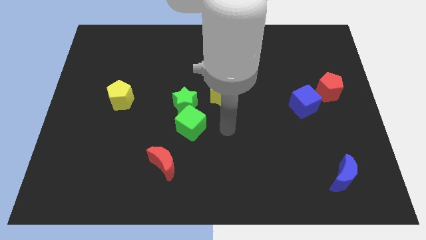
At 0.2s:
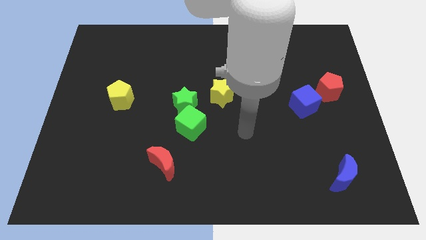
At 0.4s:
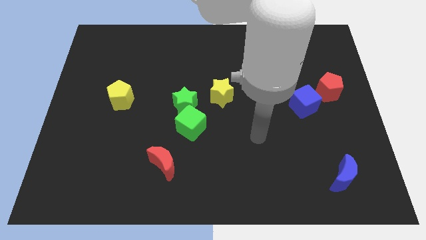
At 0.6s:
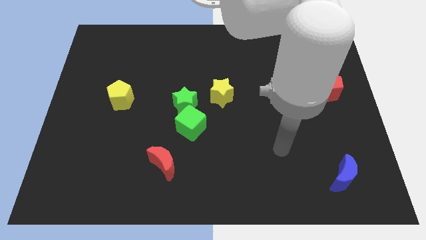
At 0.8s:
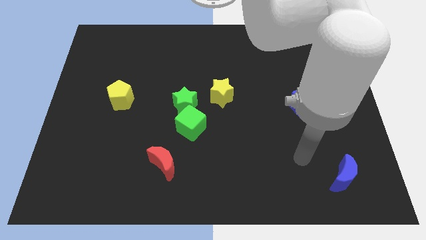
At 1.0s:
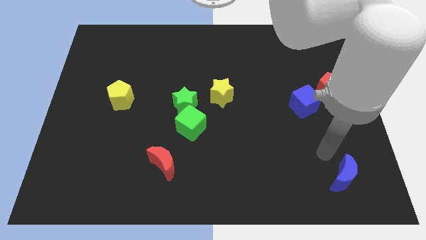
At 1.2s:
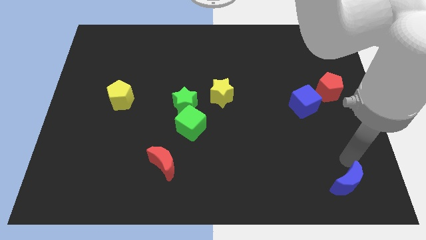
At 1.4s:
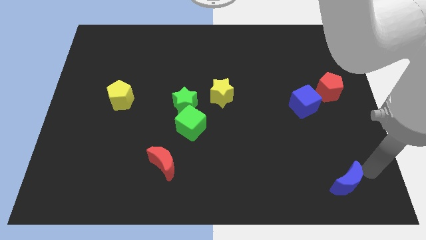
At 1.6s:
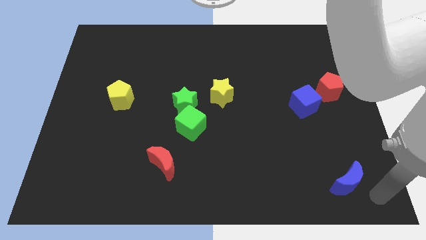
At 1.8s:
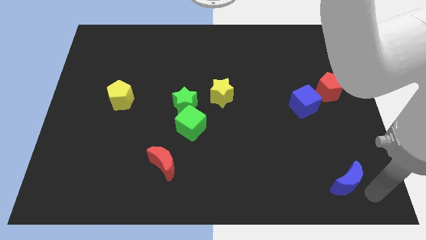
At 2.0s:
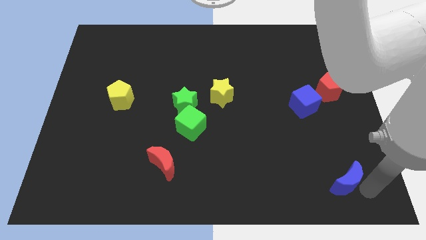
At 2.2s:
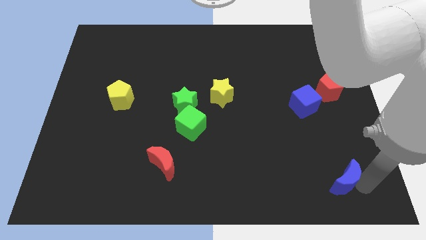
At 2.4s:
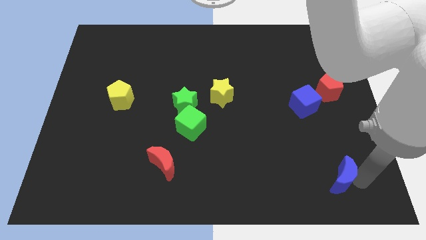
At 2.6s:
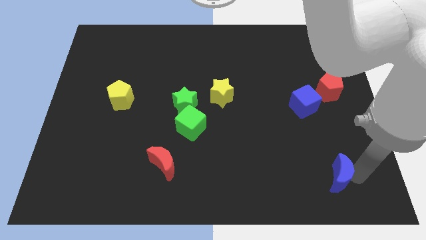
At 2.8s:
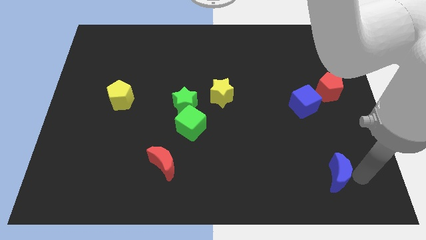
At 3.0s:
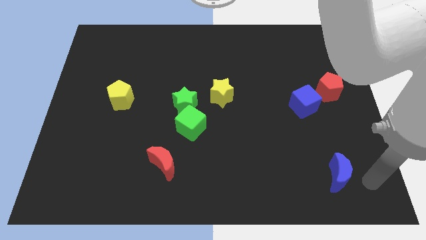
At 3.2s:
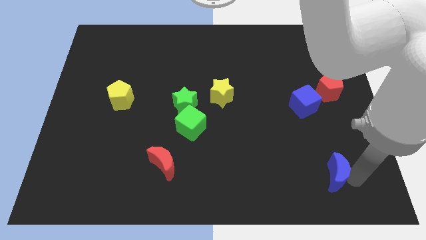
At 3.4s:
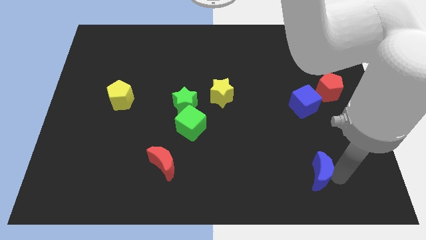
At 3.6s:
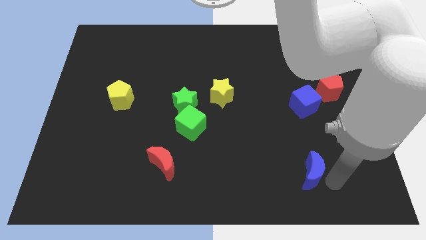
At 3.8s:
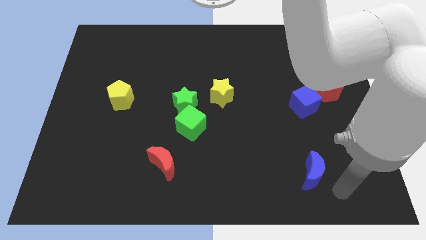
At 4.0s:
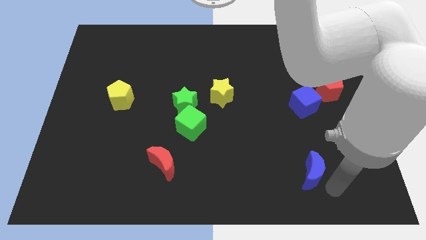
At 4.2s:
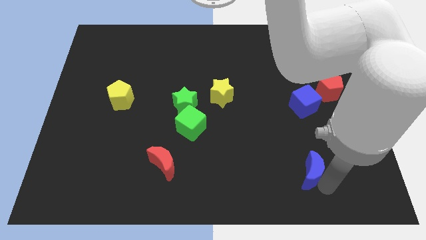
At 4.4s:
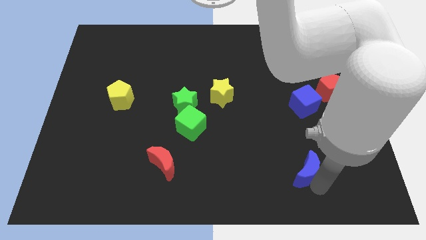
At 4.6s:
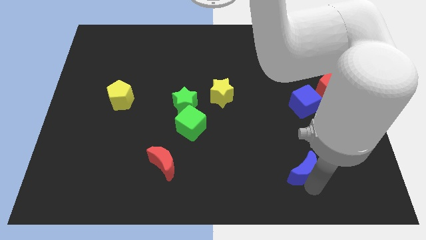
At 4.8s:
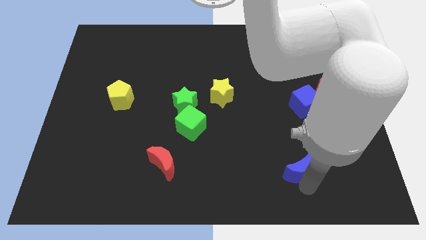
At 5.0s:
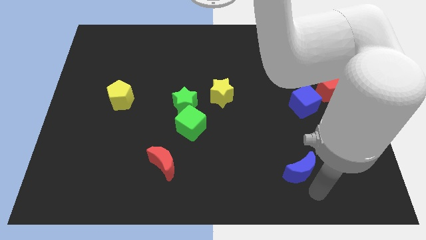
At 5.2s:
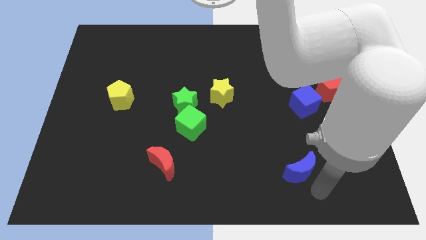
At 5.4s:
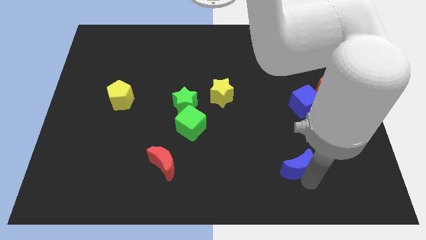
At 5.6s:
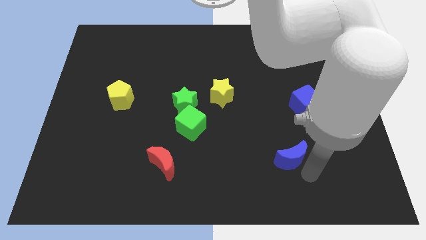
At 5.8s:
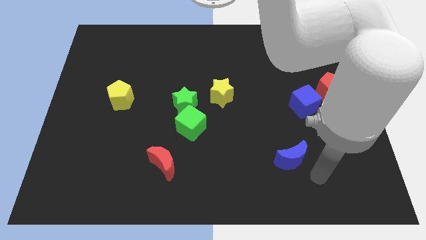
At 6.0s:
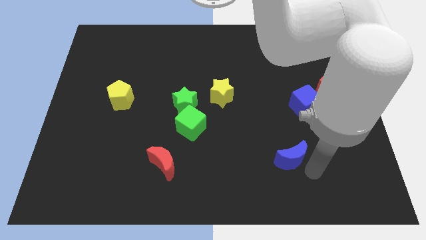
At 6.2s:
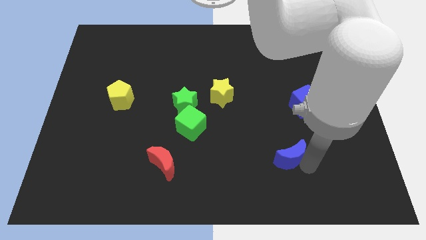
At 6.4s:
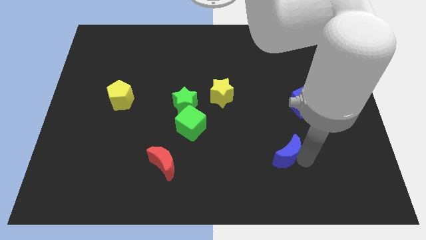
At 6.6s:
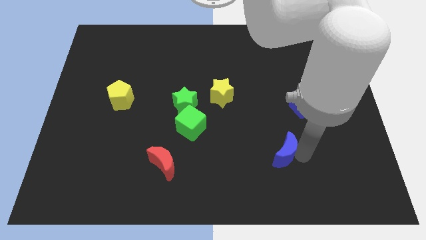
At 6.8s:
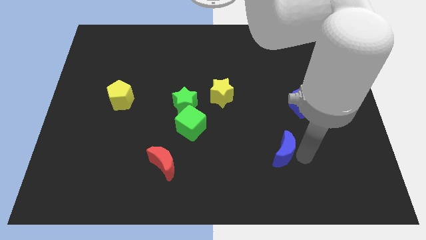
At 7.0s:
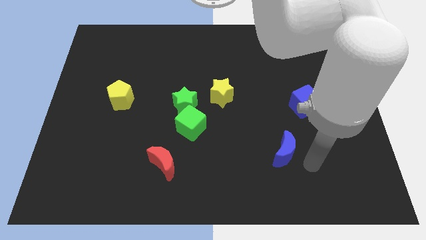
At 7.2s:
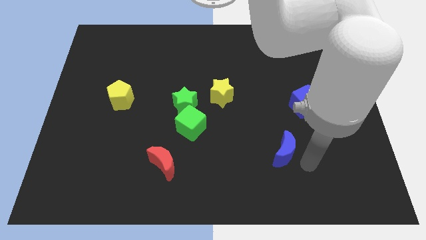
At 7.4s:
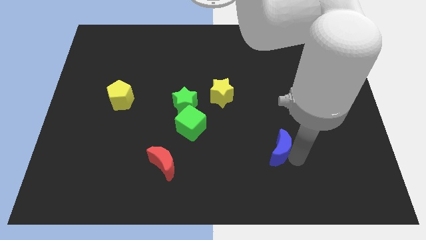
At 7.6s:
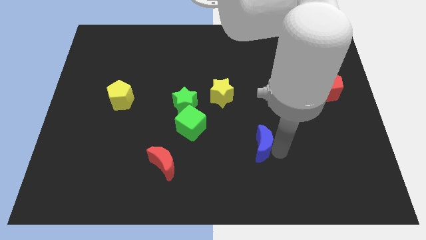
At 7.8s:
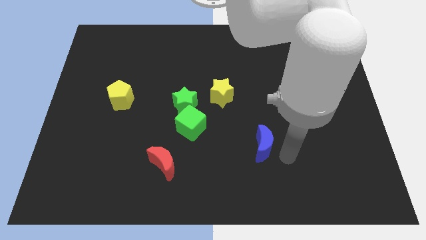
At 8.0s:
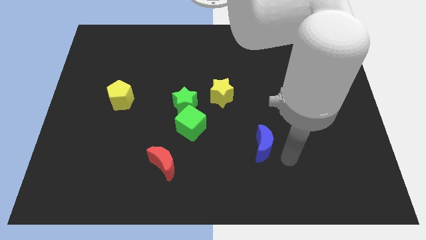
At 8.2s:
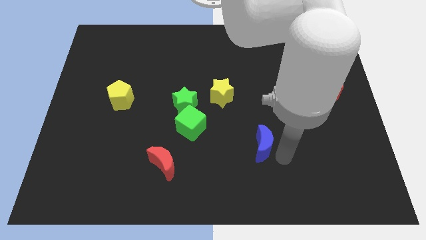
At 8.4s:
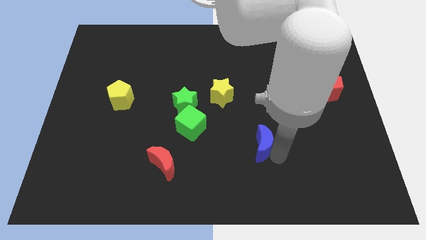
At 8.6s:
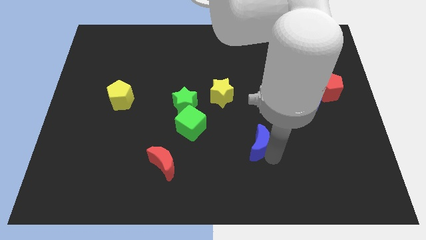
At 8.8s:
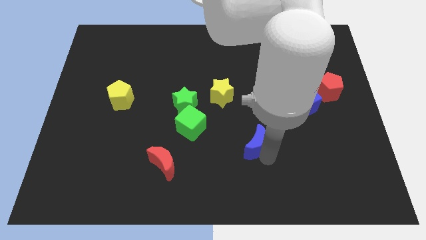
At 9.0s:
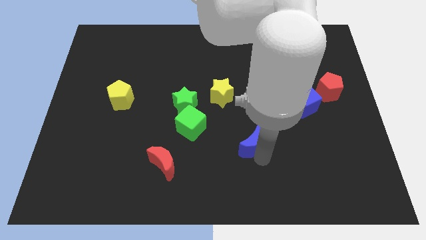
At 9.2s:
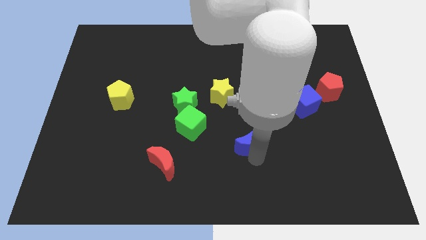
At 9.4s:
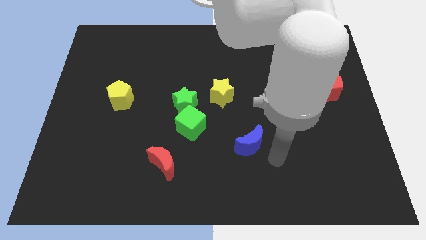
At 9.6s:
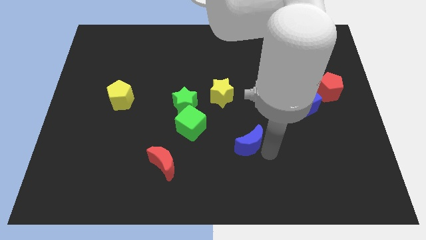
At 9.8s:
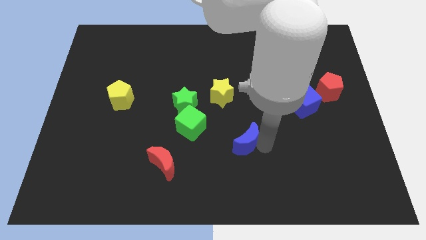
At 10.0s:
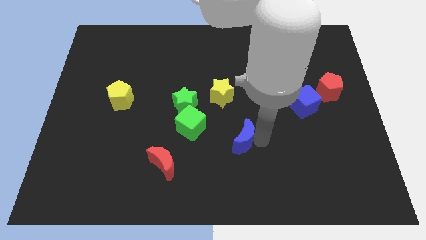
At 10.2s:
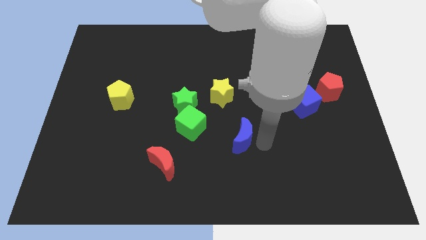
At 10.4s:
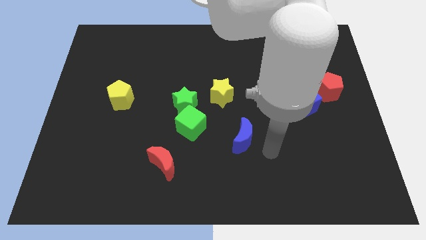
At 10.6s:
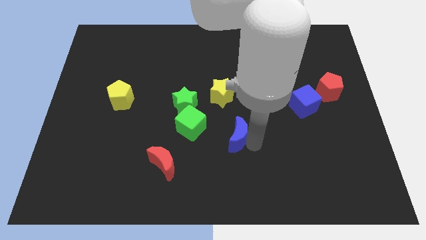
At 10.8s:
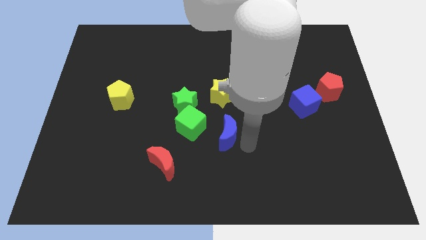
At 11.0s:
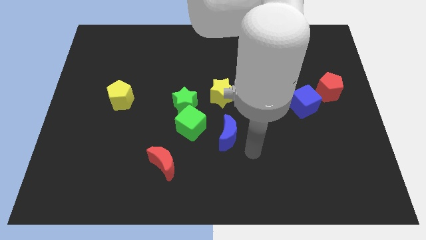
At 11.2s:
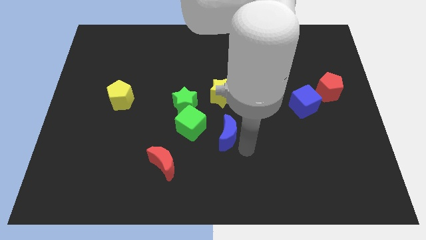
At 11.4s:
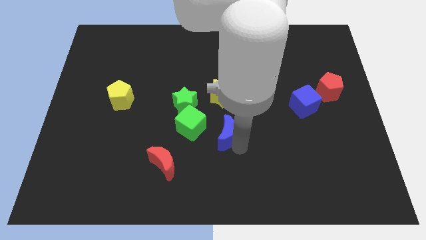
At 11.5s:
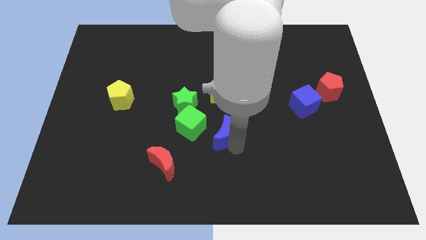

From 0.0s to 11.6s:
put the blue moon diagonally down and to the right of the green star

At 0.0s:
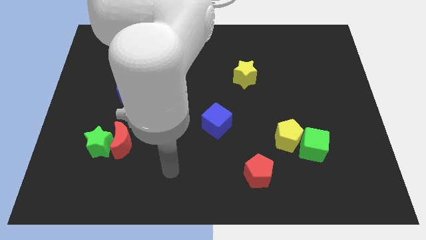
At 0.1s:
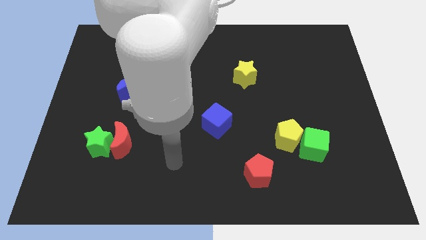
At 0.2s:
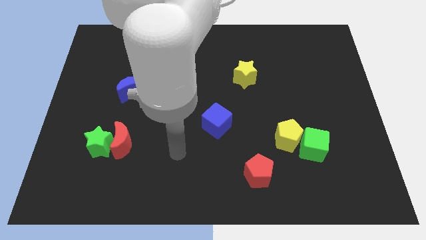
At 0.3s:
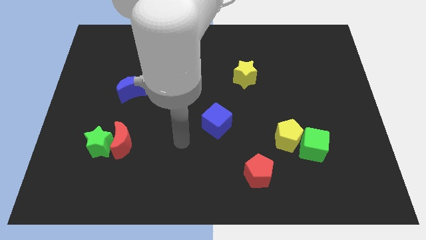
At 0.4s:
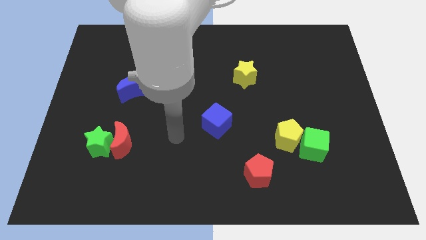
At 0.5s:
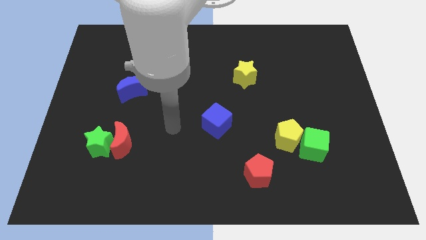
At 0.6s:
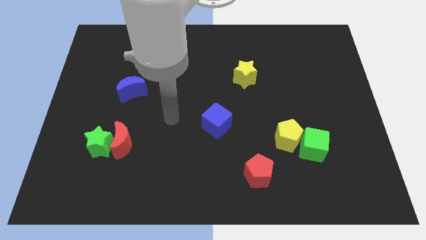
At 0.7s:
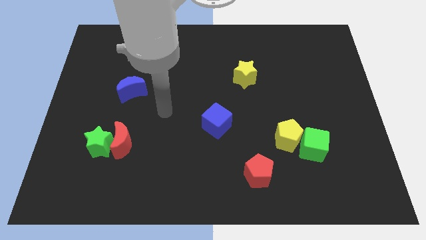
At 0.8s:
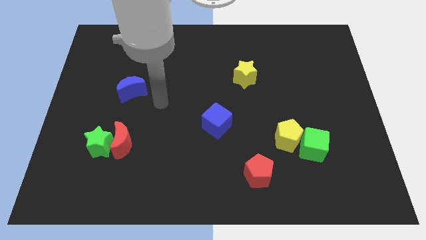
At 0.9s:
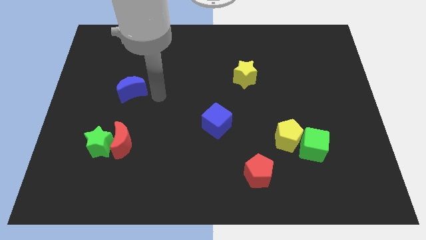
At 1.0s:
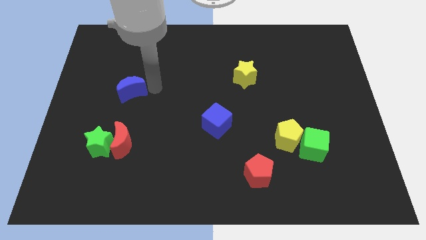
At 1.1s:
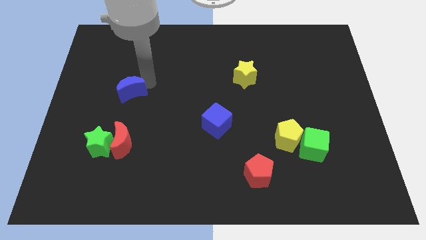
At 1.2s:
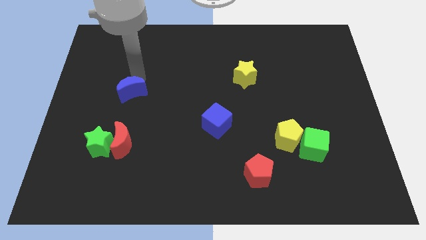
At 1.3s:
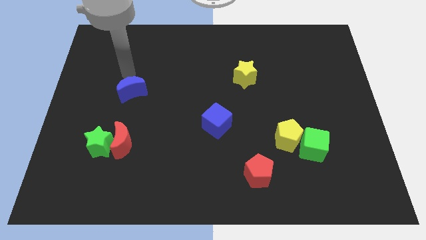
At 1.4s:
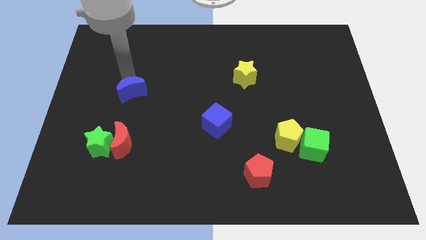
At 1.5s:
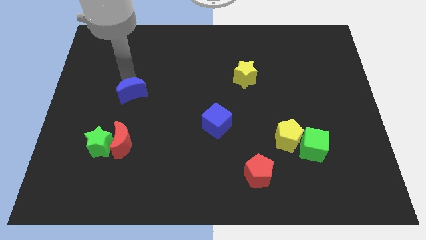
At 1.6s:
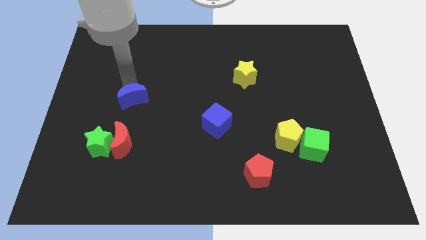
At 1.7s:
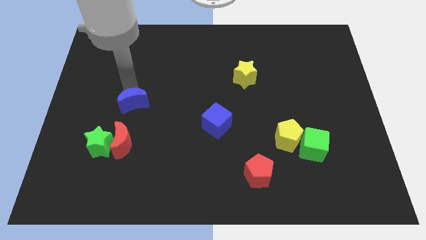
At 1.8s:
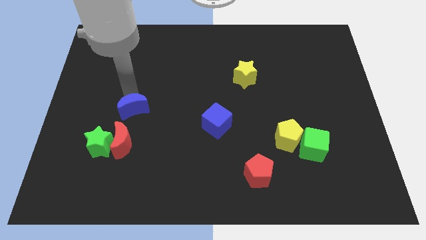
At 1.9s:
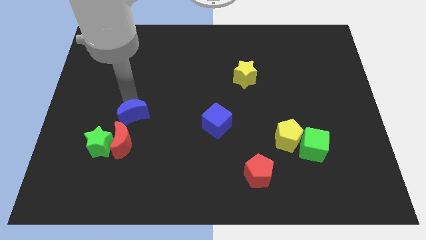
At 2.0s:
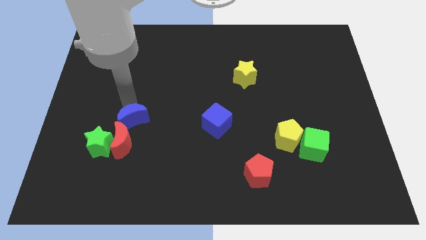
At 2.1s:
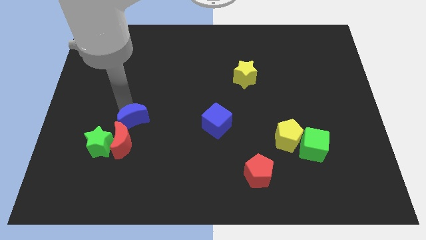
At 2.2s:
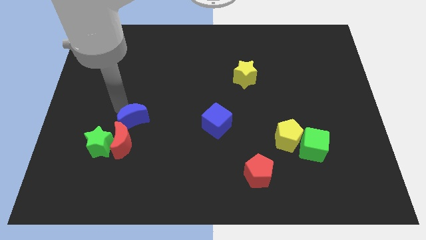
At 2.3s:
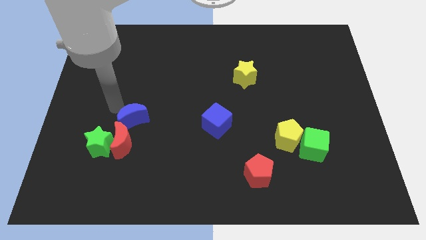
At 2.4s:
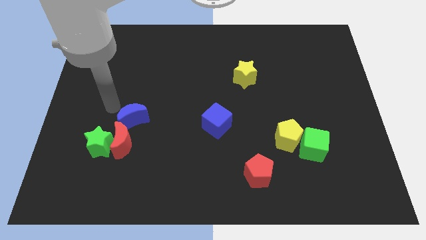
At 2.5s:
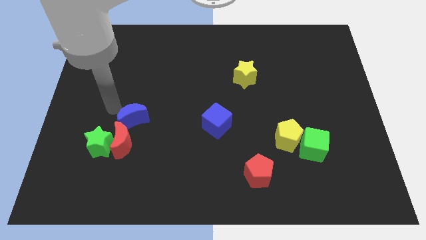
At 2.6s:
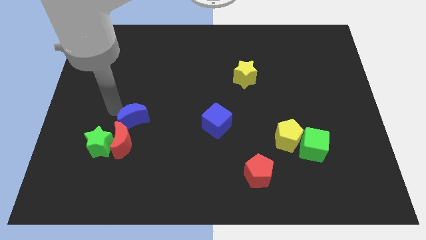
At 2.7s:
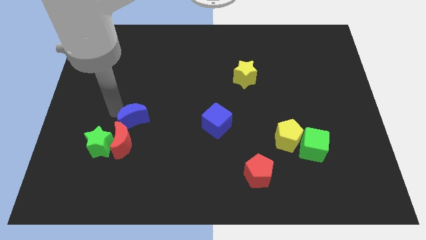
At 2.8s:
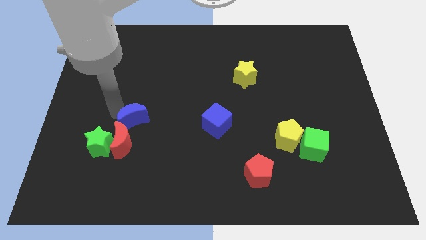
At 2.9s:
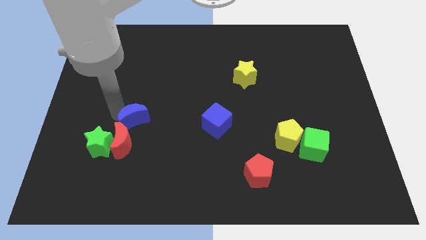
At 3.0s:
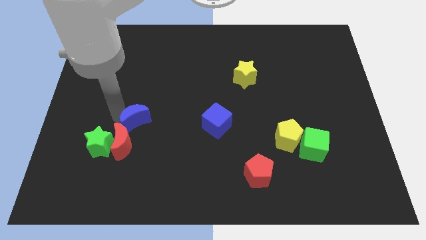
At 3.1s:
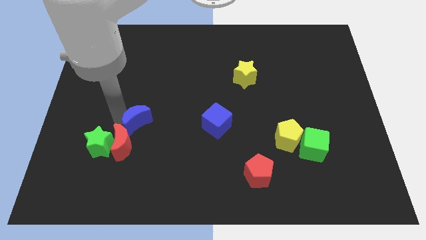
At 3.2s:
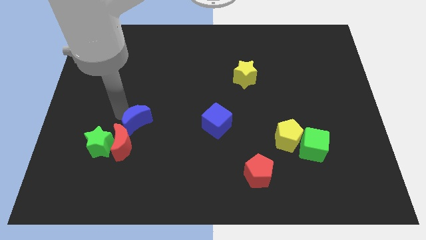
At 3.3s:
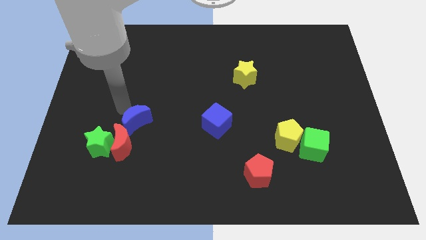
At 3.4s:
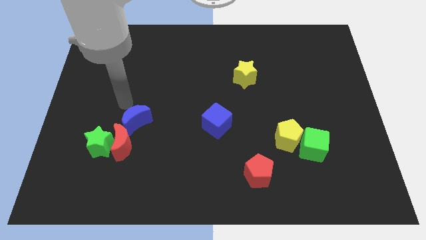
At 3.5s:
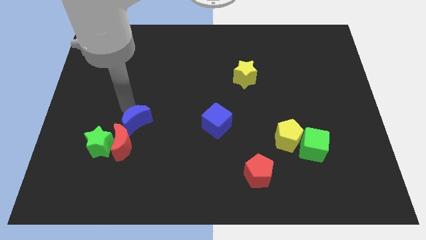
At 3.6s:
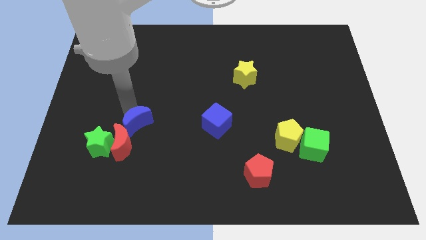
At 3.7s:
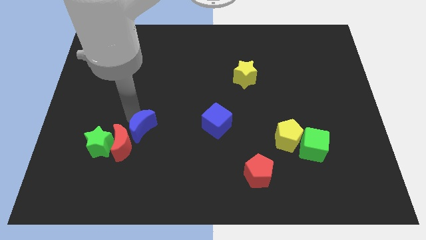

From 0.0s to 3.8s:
move the blue moon right of the green star
